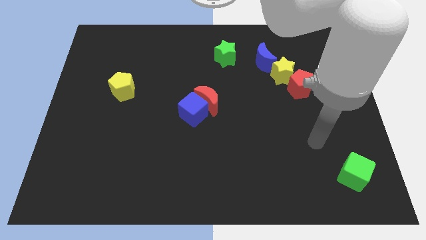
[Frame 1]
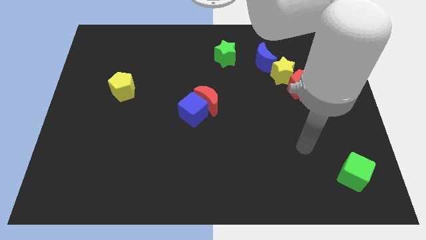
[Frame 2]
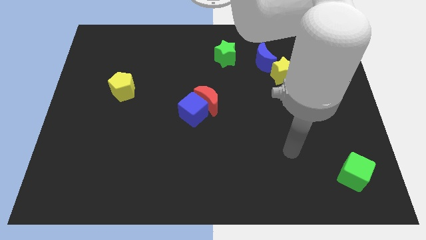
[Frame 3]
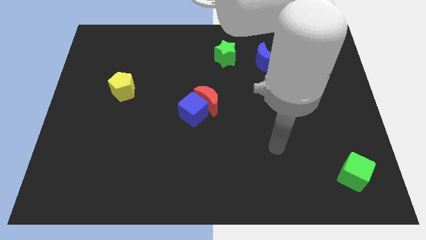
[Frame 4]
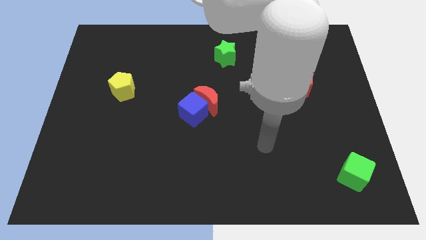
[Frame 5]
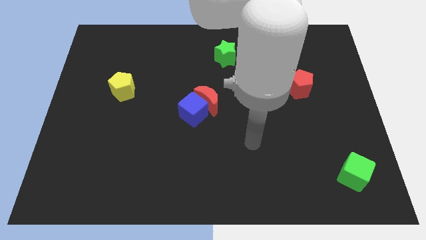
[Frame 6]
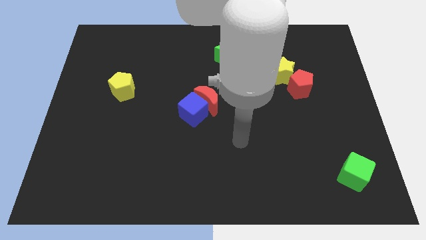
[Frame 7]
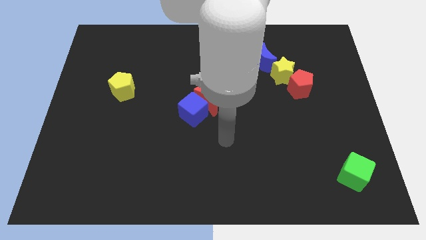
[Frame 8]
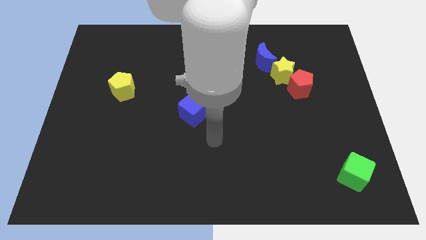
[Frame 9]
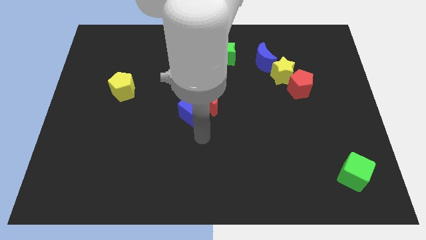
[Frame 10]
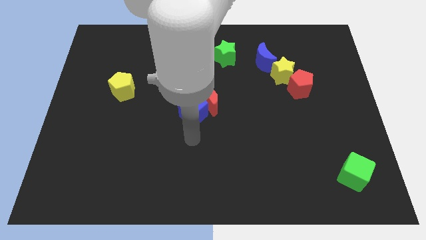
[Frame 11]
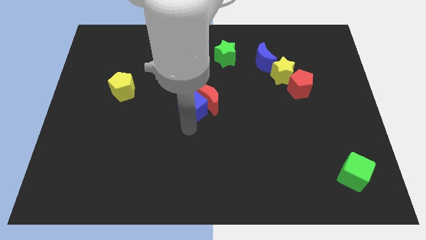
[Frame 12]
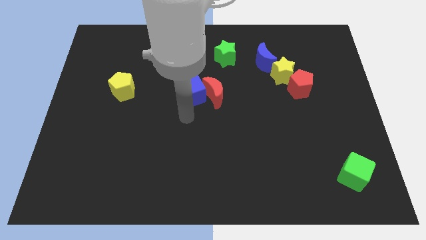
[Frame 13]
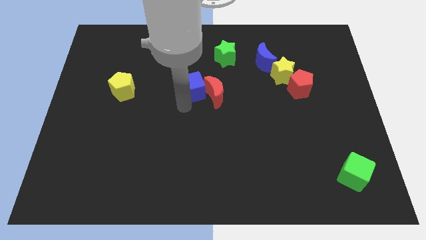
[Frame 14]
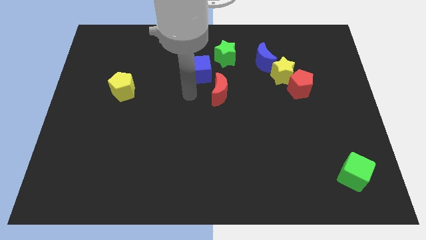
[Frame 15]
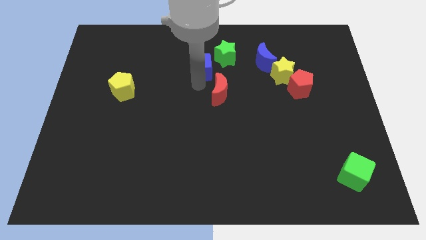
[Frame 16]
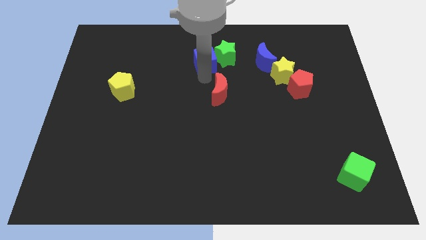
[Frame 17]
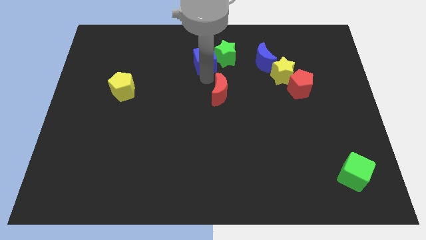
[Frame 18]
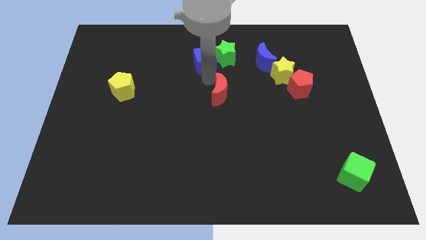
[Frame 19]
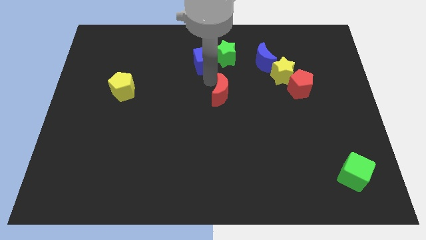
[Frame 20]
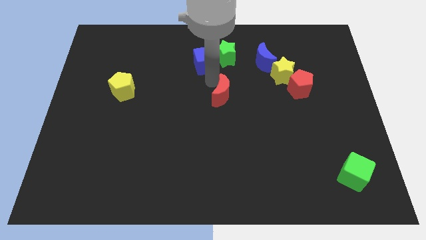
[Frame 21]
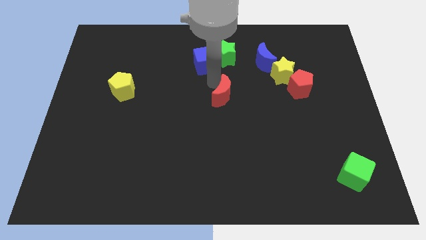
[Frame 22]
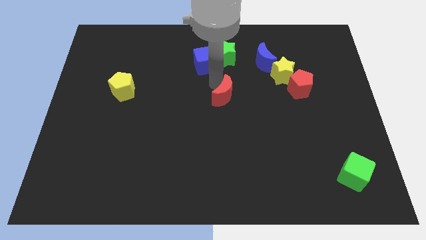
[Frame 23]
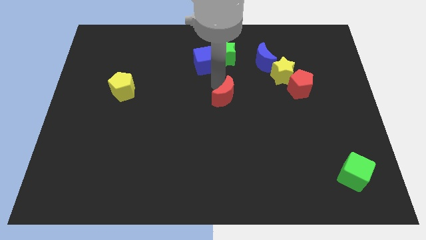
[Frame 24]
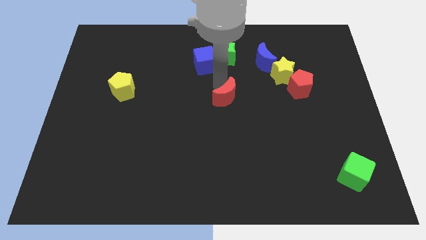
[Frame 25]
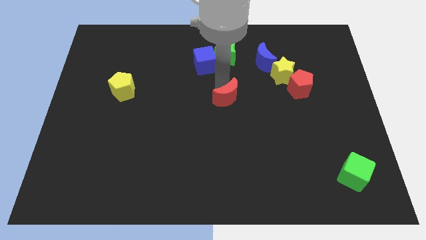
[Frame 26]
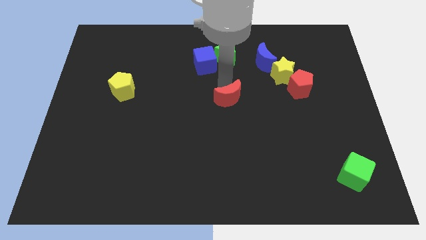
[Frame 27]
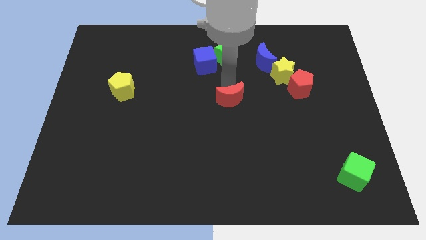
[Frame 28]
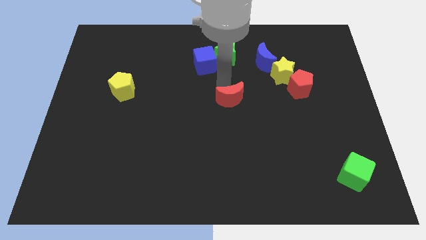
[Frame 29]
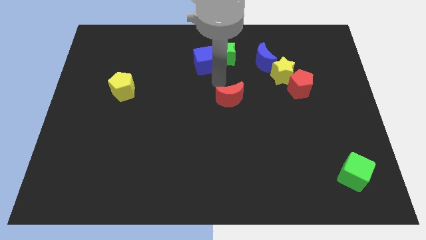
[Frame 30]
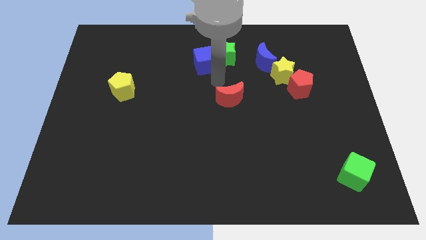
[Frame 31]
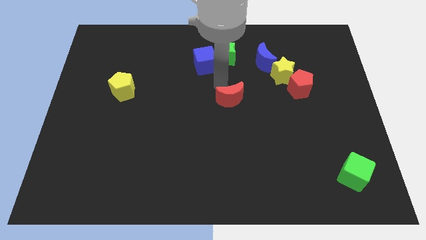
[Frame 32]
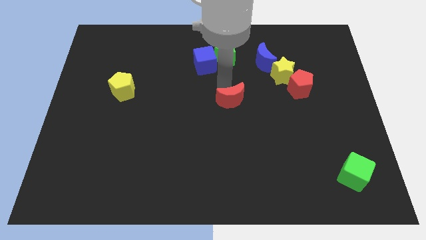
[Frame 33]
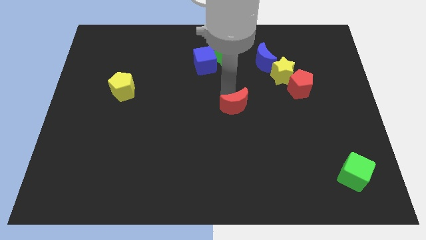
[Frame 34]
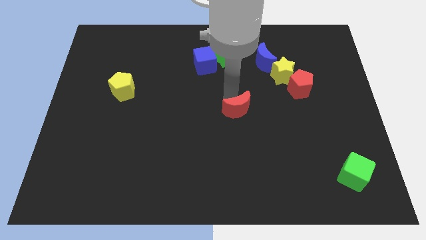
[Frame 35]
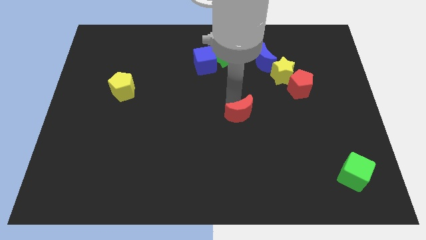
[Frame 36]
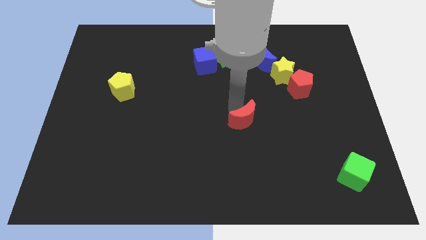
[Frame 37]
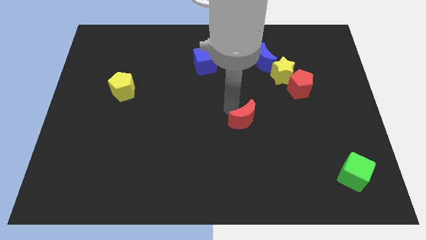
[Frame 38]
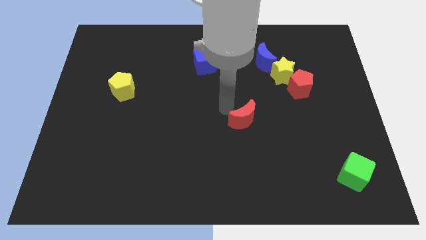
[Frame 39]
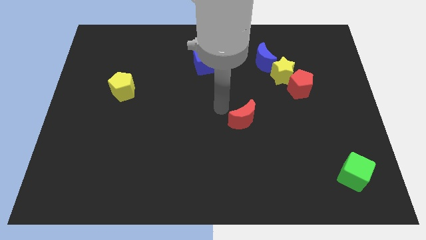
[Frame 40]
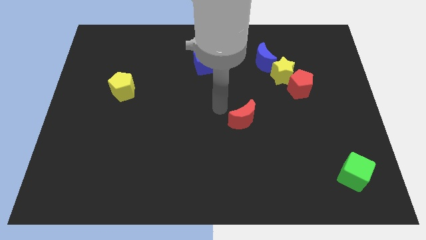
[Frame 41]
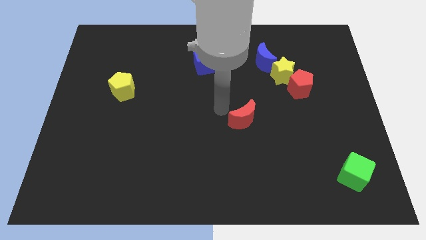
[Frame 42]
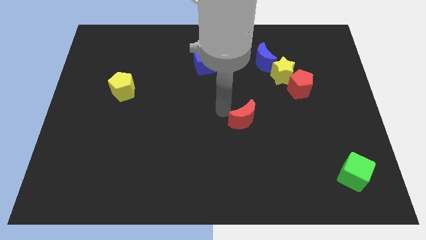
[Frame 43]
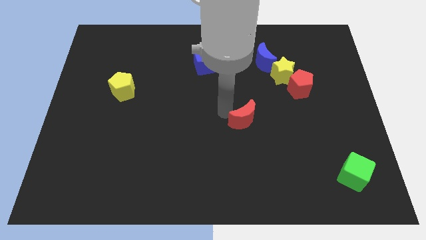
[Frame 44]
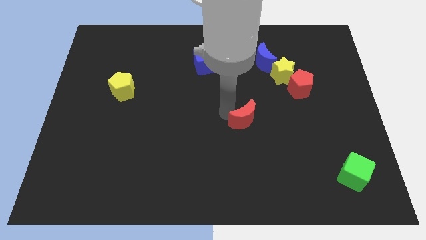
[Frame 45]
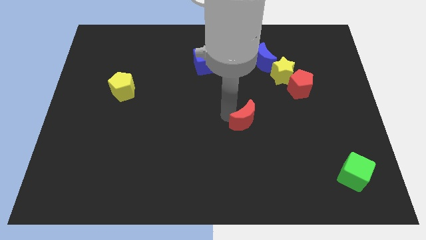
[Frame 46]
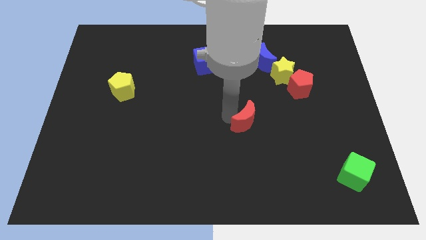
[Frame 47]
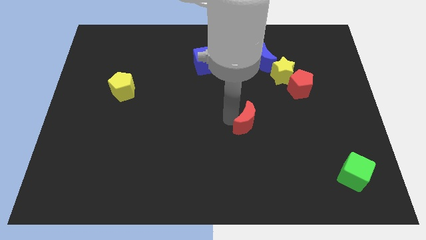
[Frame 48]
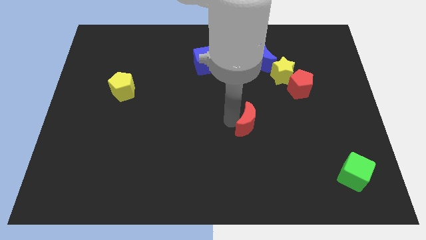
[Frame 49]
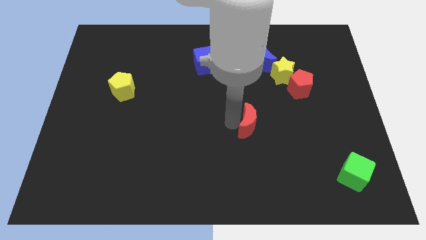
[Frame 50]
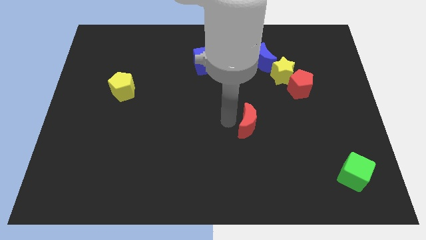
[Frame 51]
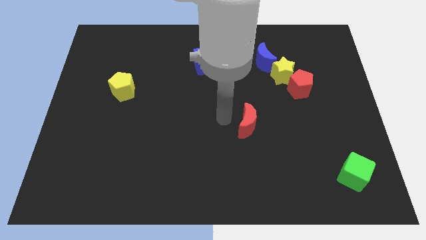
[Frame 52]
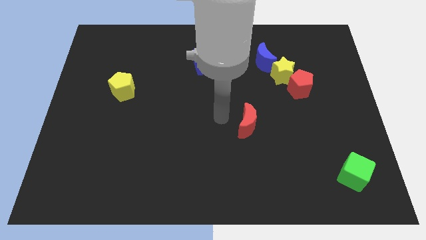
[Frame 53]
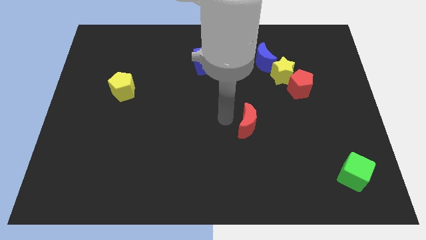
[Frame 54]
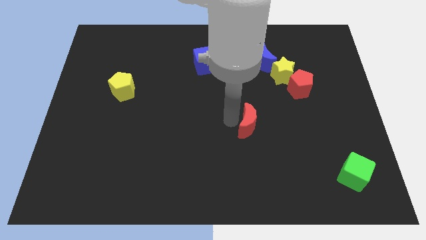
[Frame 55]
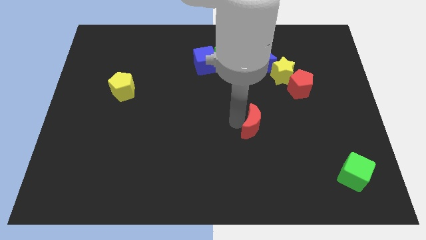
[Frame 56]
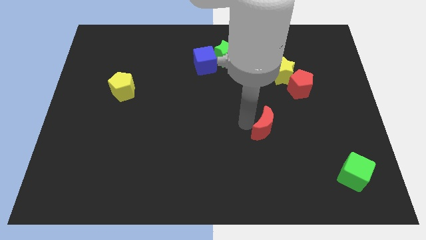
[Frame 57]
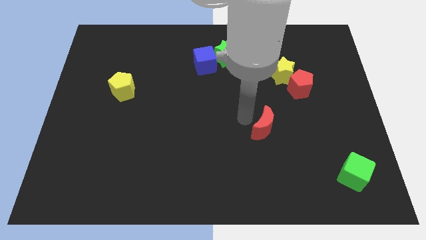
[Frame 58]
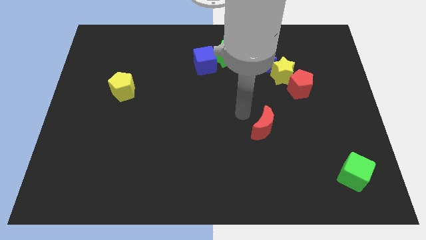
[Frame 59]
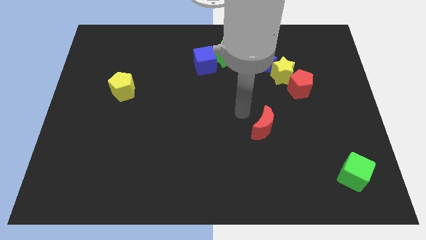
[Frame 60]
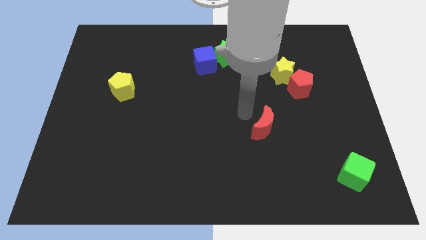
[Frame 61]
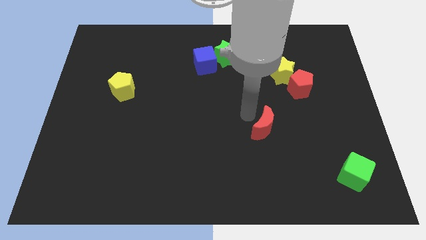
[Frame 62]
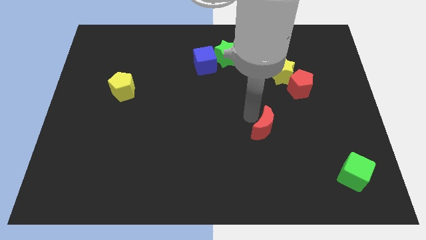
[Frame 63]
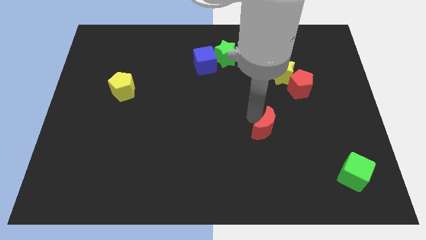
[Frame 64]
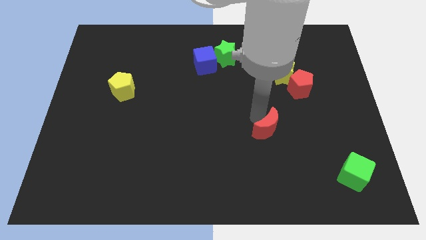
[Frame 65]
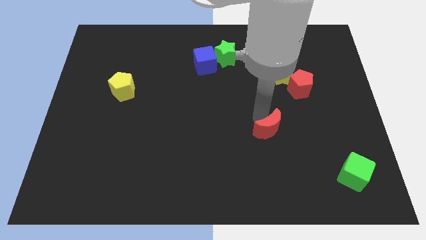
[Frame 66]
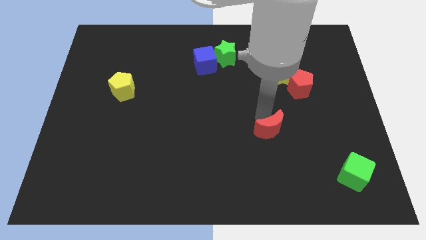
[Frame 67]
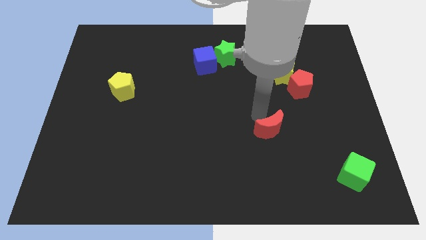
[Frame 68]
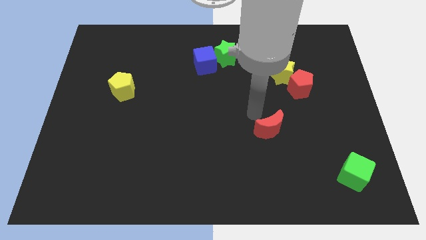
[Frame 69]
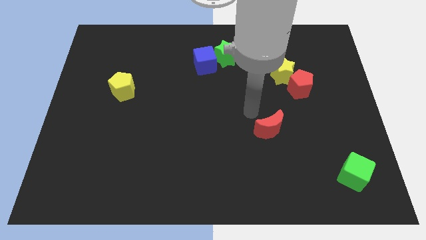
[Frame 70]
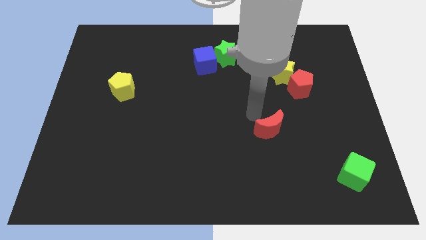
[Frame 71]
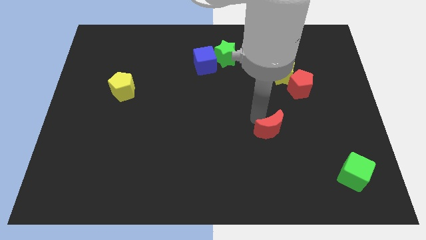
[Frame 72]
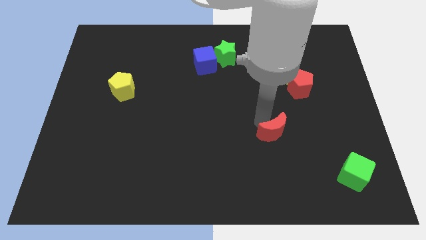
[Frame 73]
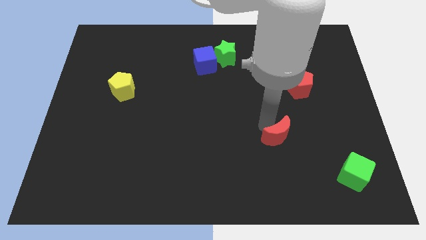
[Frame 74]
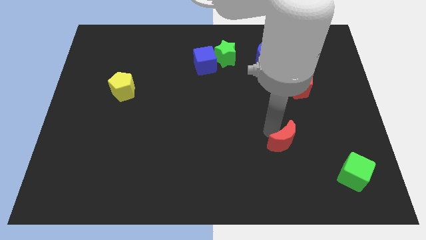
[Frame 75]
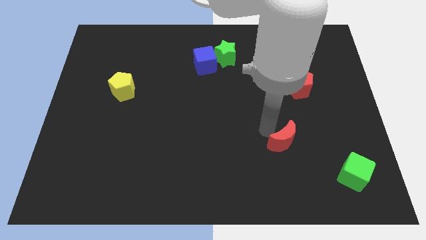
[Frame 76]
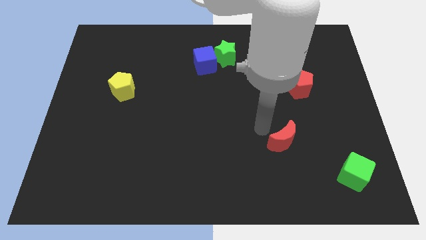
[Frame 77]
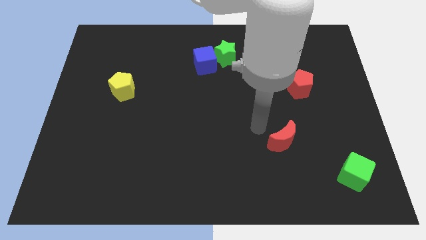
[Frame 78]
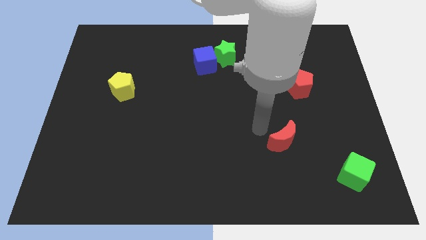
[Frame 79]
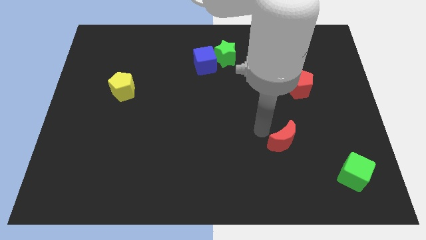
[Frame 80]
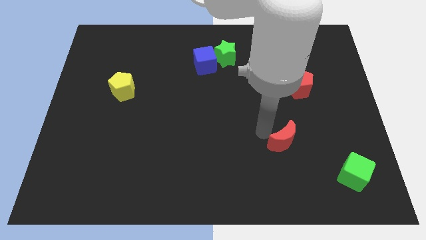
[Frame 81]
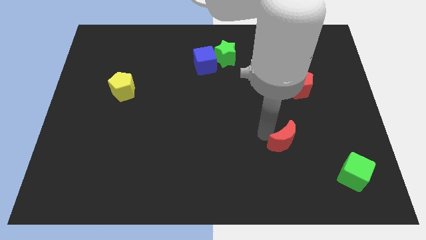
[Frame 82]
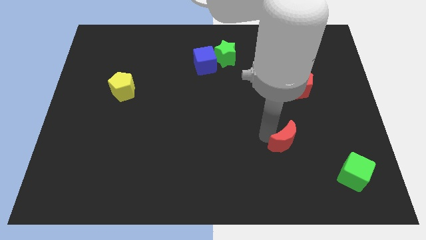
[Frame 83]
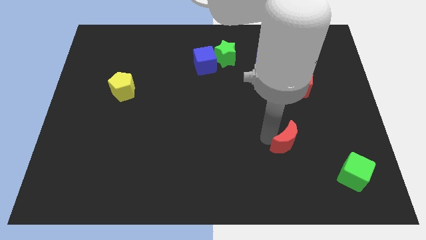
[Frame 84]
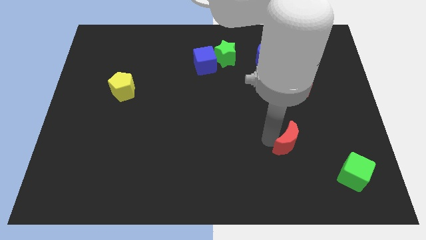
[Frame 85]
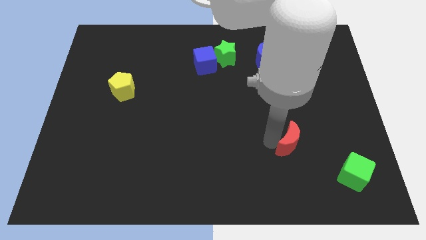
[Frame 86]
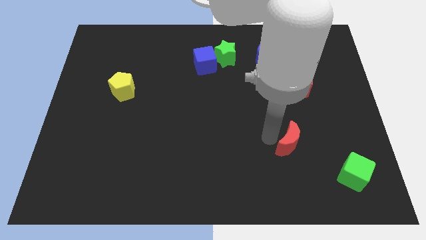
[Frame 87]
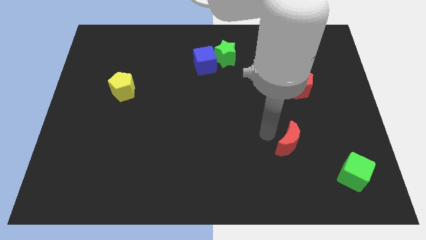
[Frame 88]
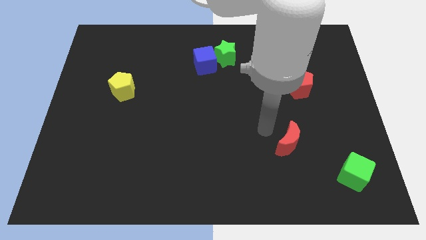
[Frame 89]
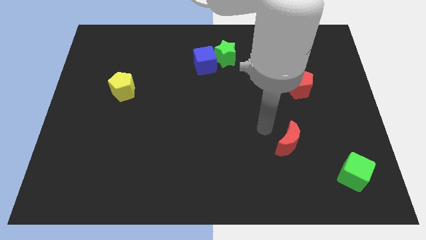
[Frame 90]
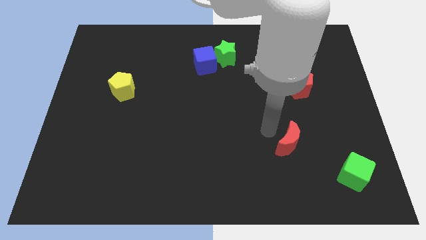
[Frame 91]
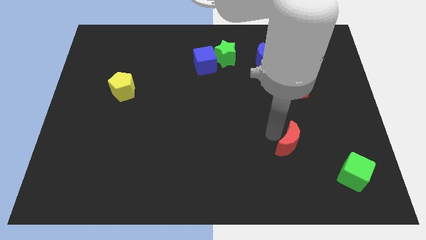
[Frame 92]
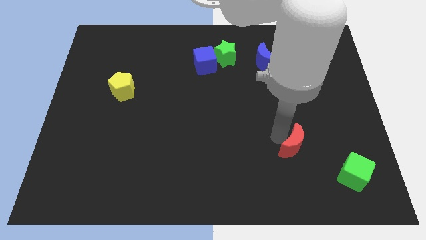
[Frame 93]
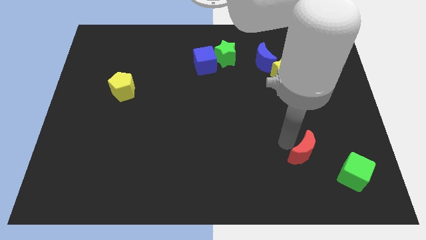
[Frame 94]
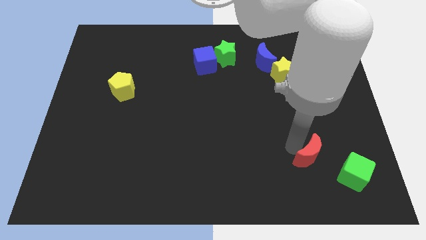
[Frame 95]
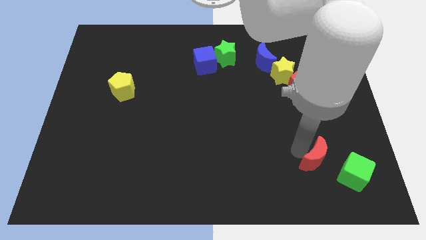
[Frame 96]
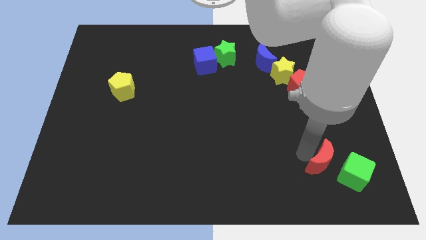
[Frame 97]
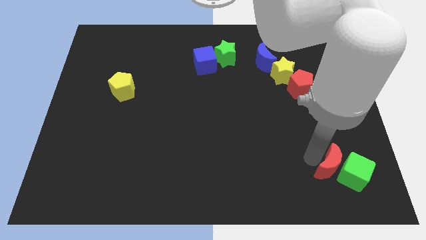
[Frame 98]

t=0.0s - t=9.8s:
slide the red moon to the green cube
